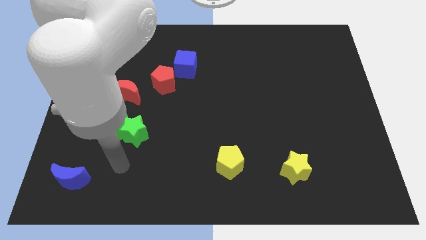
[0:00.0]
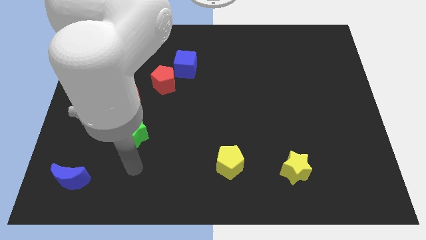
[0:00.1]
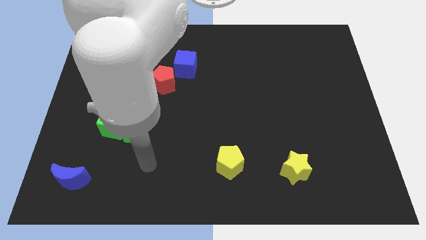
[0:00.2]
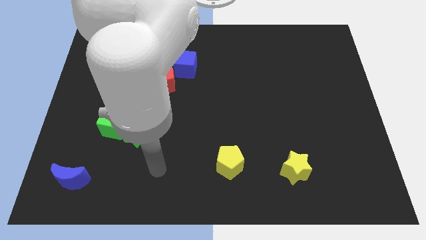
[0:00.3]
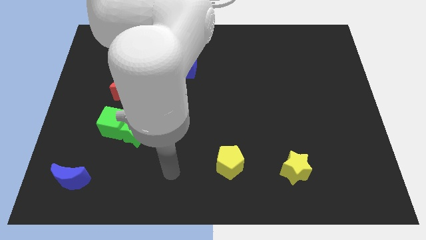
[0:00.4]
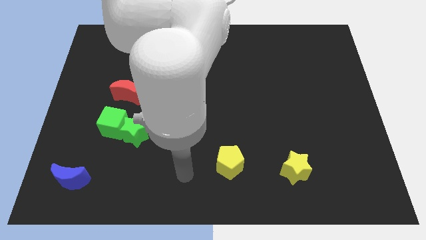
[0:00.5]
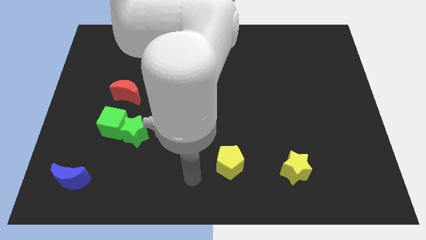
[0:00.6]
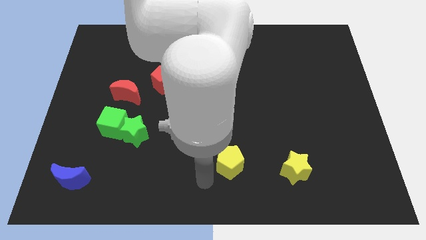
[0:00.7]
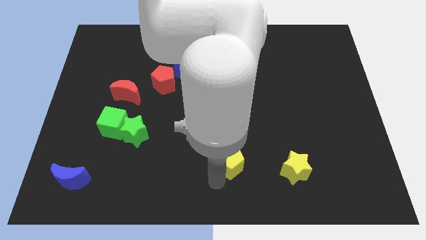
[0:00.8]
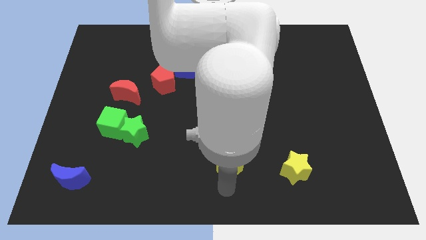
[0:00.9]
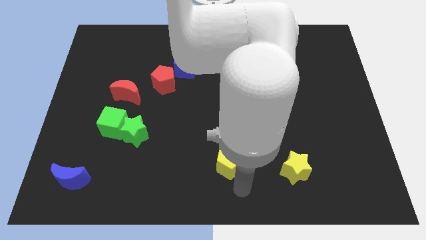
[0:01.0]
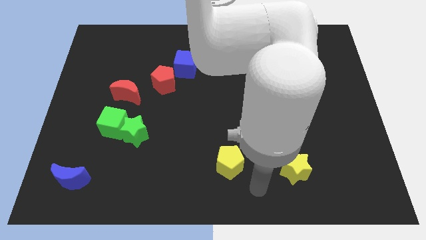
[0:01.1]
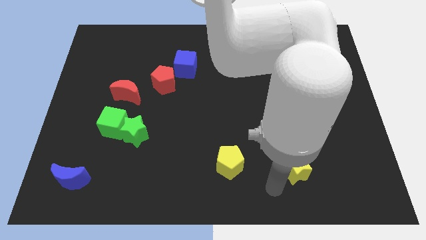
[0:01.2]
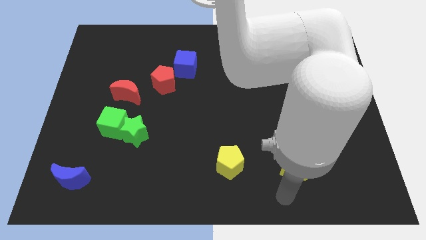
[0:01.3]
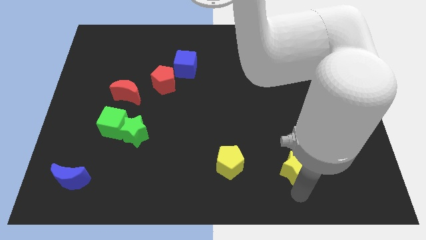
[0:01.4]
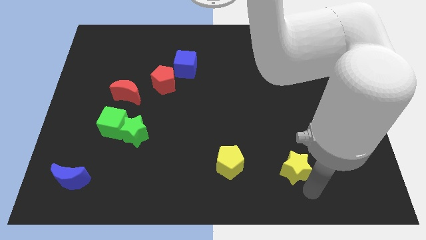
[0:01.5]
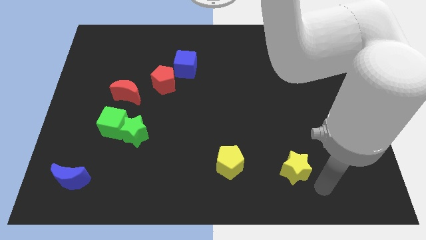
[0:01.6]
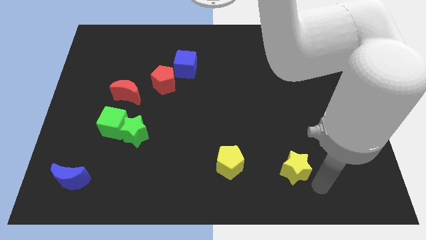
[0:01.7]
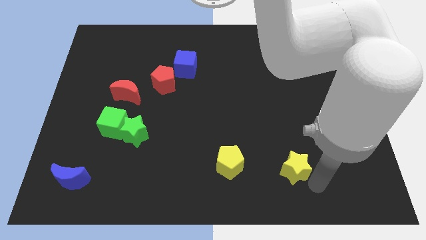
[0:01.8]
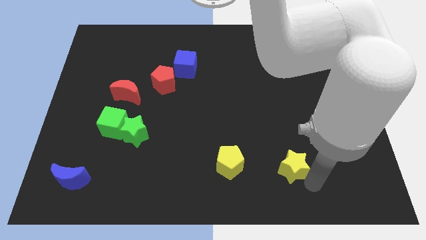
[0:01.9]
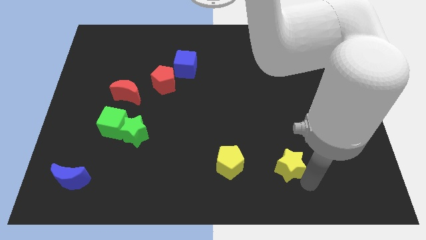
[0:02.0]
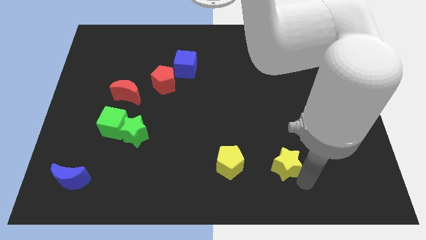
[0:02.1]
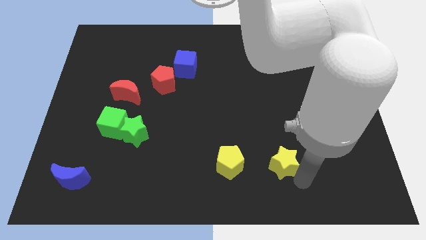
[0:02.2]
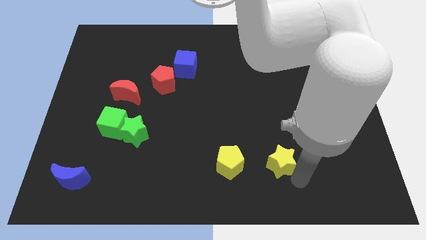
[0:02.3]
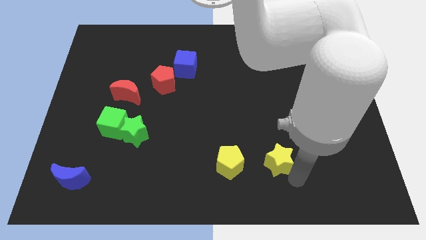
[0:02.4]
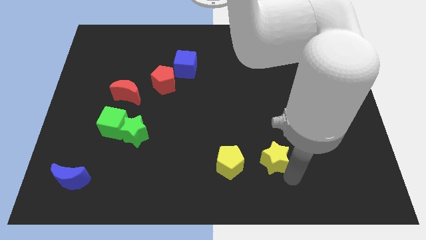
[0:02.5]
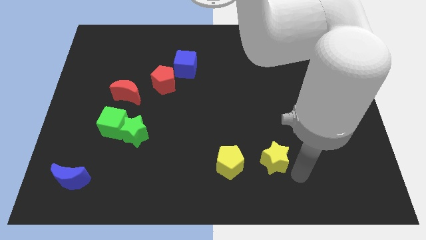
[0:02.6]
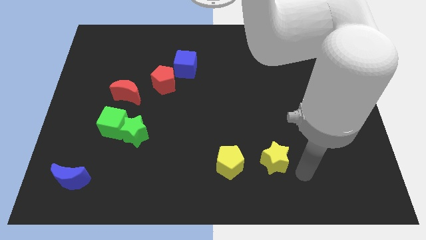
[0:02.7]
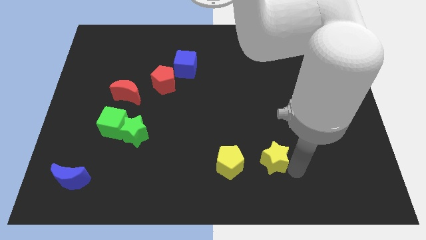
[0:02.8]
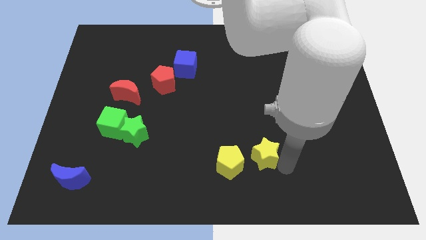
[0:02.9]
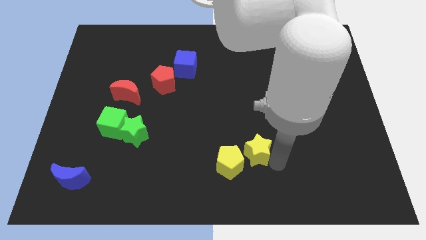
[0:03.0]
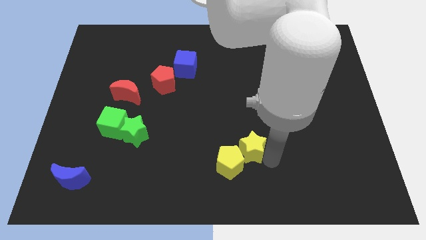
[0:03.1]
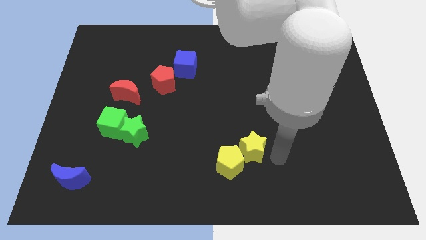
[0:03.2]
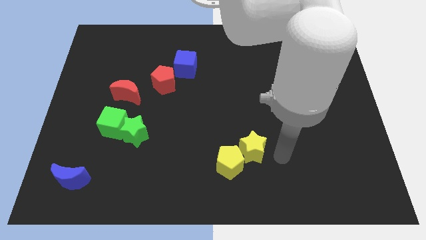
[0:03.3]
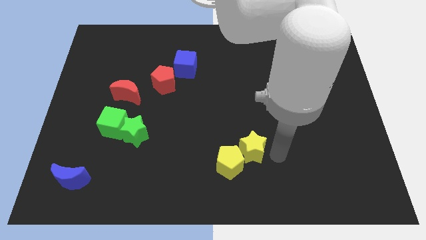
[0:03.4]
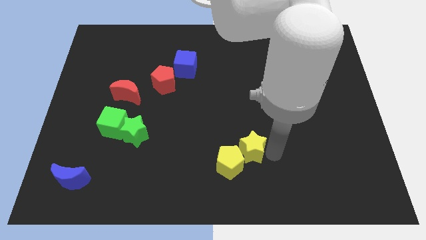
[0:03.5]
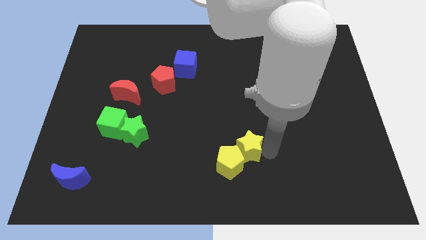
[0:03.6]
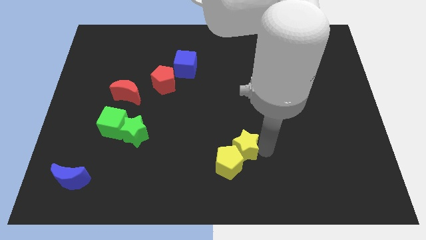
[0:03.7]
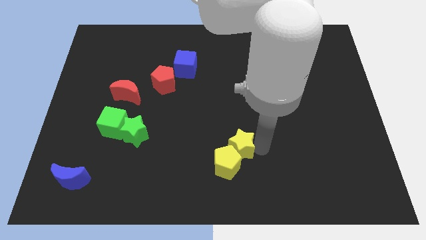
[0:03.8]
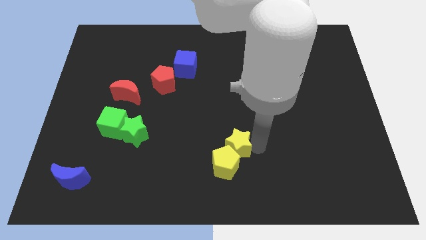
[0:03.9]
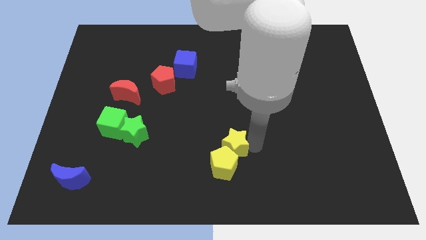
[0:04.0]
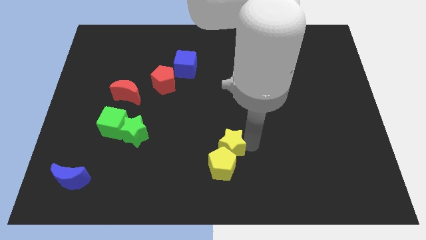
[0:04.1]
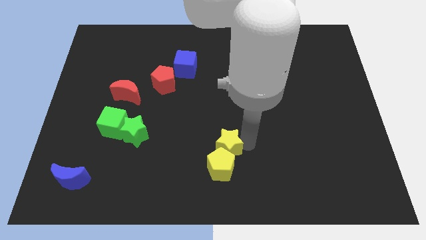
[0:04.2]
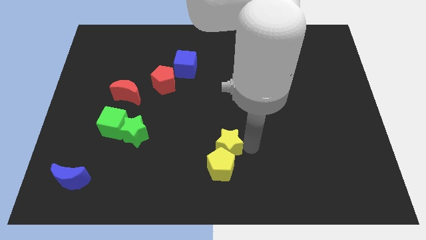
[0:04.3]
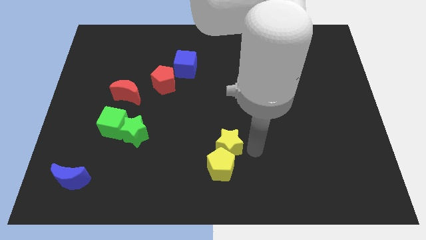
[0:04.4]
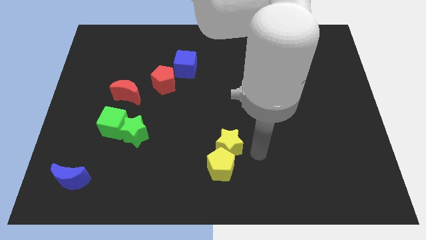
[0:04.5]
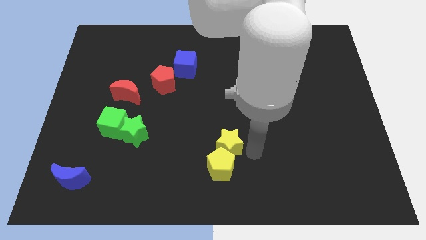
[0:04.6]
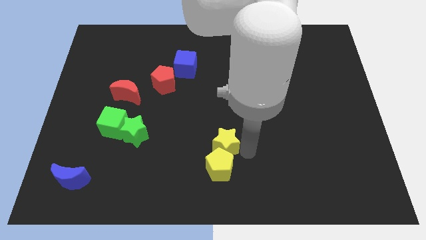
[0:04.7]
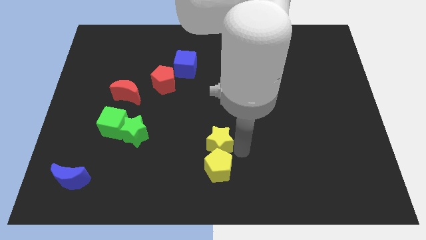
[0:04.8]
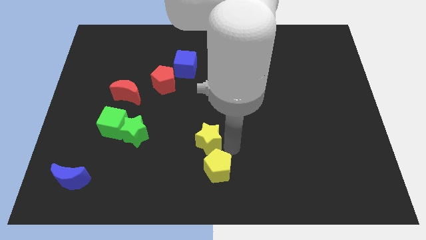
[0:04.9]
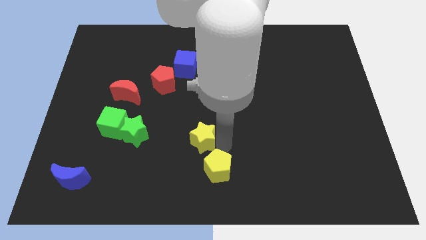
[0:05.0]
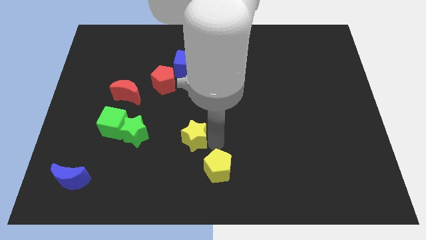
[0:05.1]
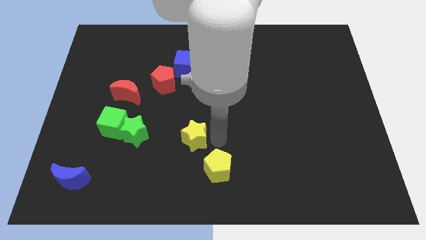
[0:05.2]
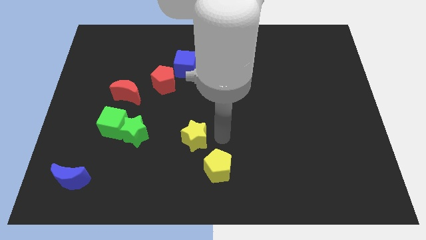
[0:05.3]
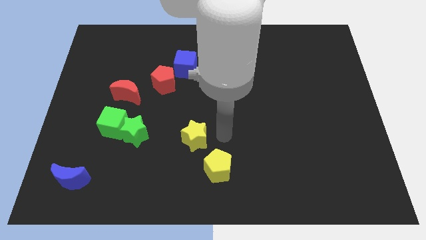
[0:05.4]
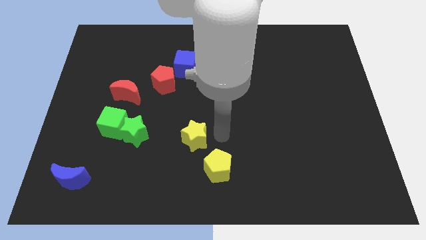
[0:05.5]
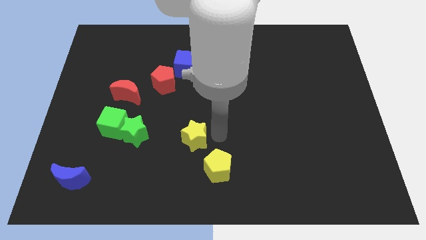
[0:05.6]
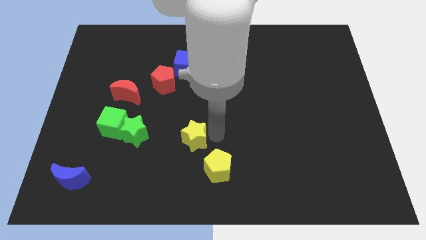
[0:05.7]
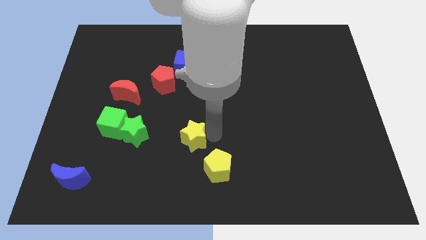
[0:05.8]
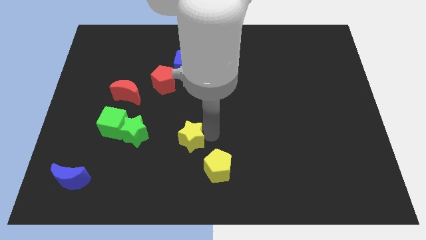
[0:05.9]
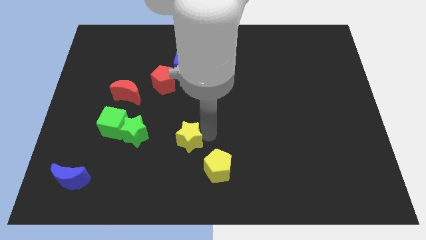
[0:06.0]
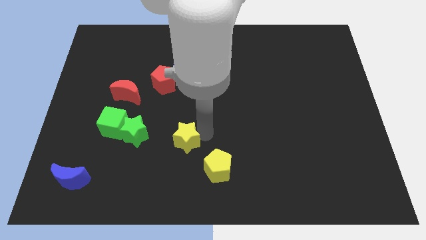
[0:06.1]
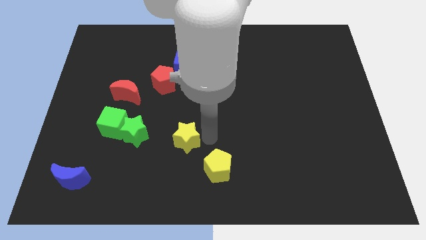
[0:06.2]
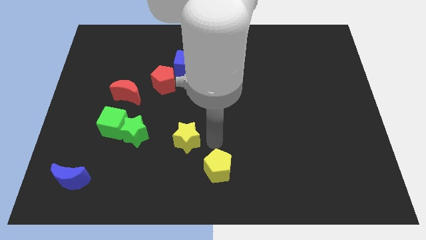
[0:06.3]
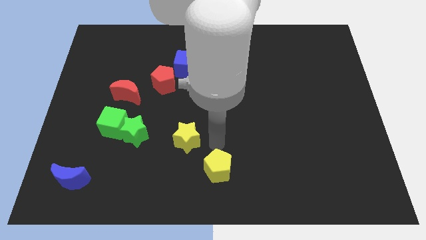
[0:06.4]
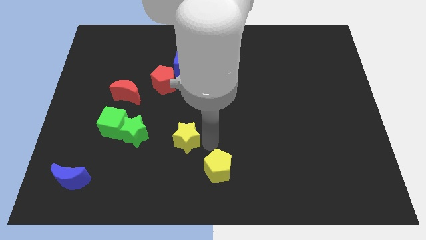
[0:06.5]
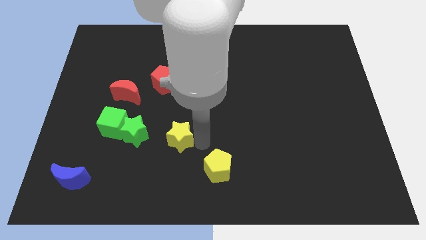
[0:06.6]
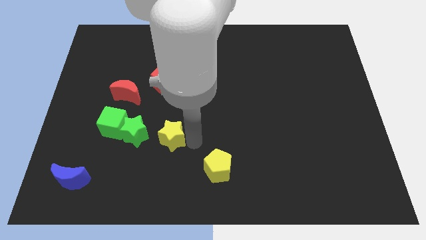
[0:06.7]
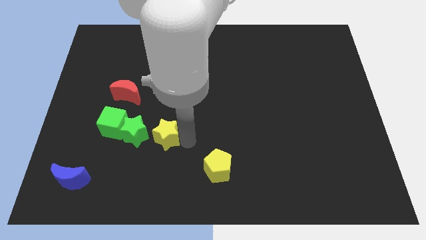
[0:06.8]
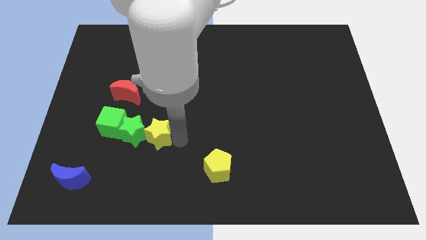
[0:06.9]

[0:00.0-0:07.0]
put the yellow star close to the green star
